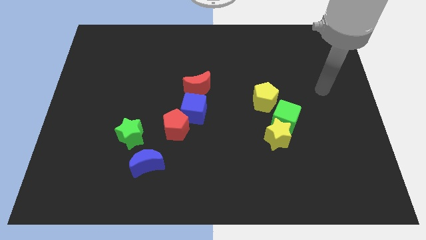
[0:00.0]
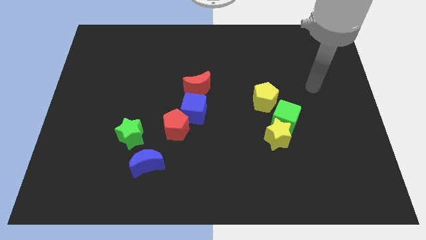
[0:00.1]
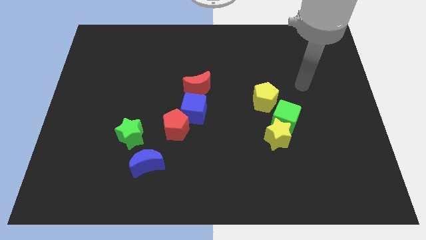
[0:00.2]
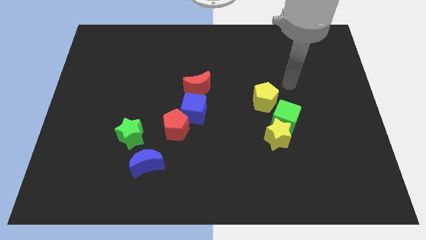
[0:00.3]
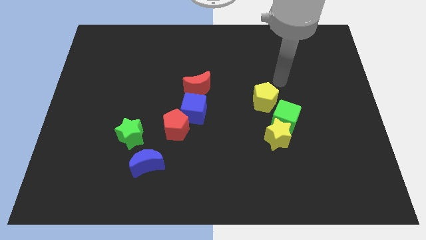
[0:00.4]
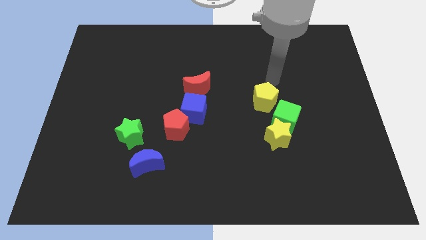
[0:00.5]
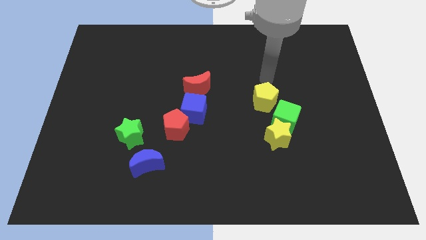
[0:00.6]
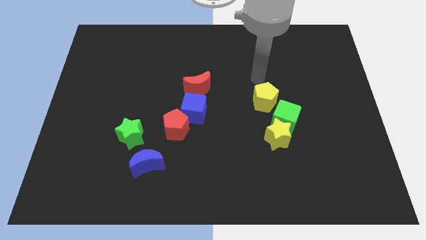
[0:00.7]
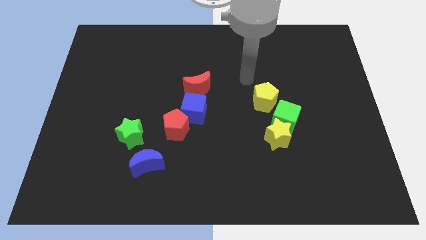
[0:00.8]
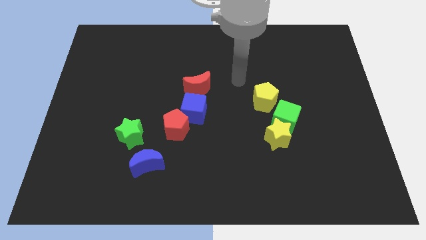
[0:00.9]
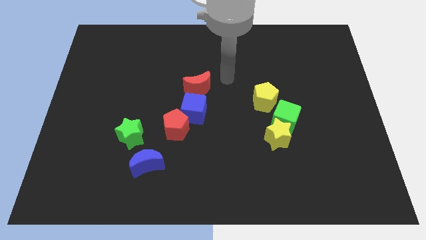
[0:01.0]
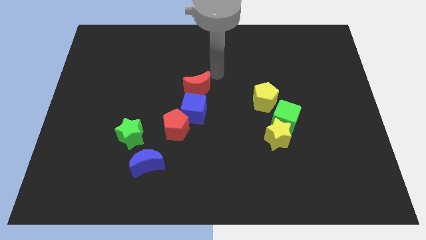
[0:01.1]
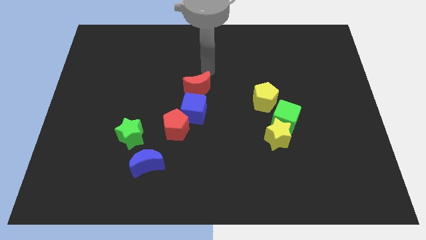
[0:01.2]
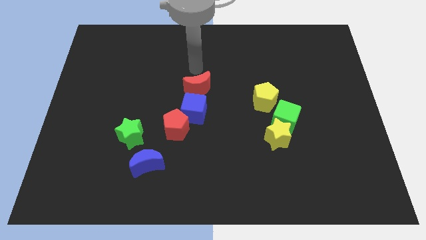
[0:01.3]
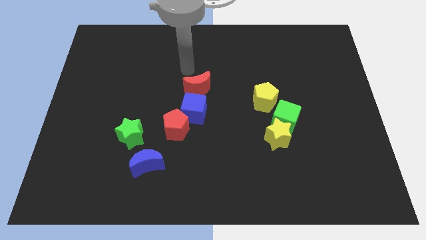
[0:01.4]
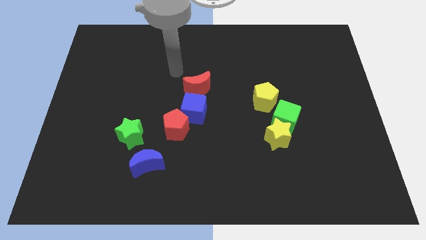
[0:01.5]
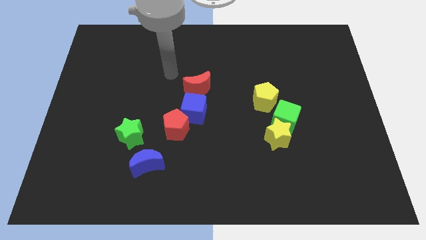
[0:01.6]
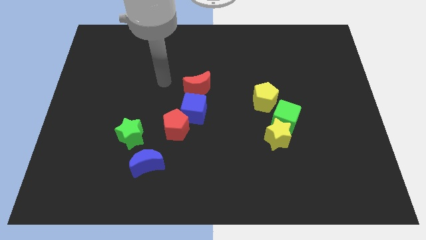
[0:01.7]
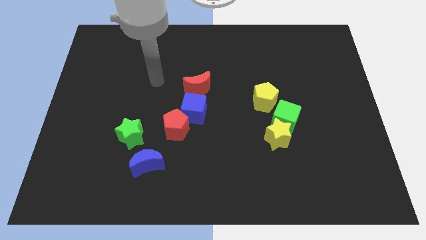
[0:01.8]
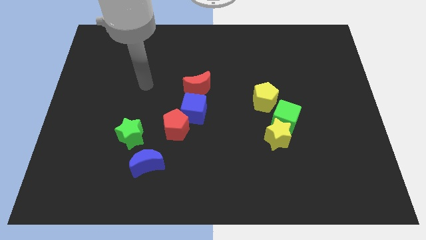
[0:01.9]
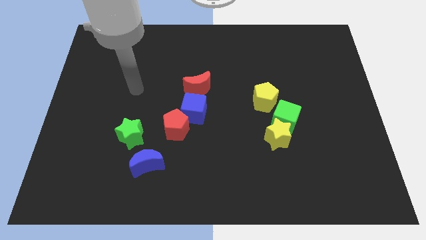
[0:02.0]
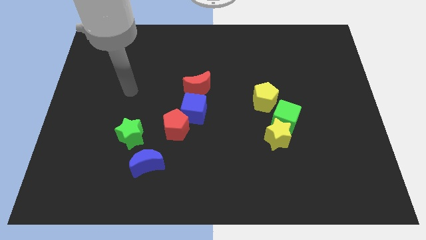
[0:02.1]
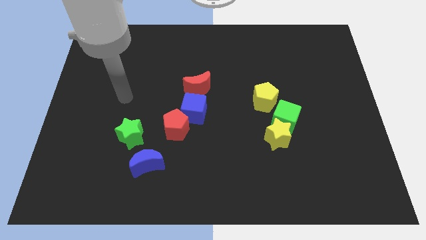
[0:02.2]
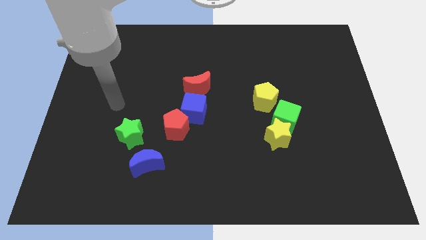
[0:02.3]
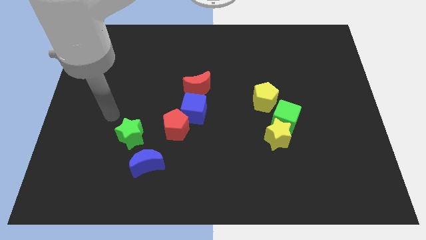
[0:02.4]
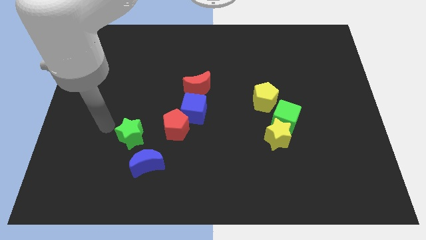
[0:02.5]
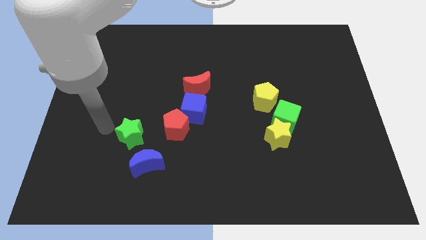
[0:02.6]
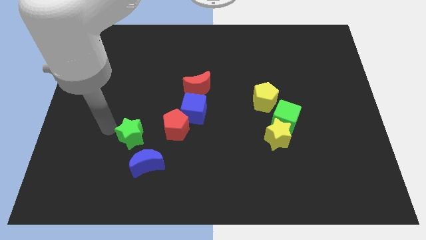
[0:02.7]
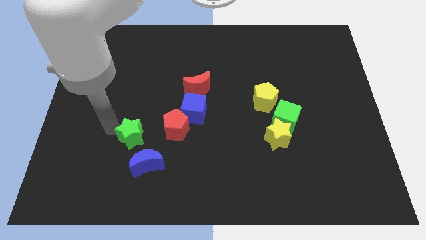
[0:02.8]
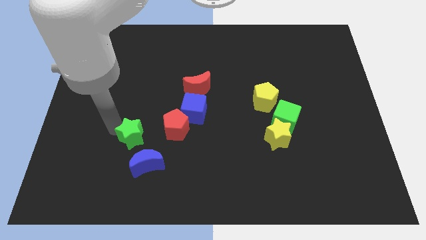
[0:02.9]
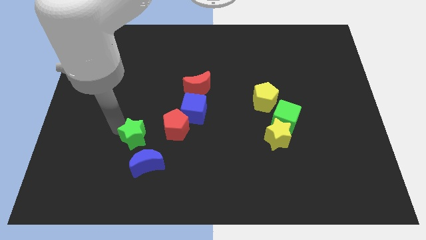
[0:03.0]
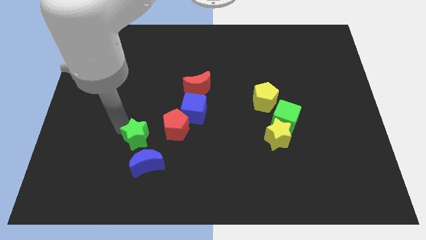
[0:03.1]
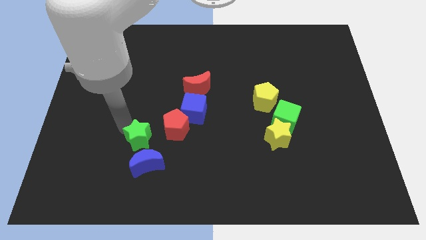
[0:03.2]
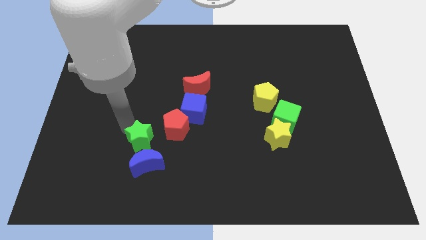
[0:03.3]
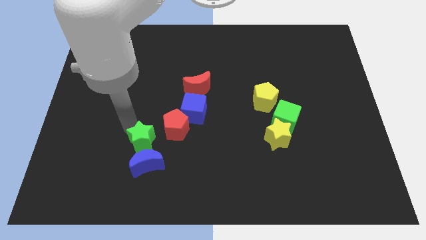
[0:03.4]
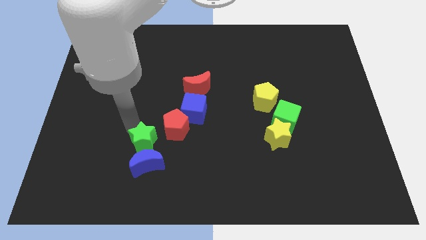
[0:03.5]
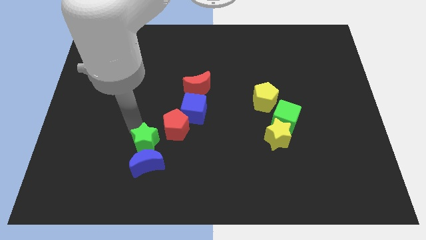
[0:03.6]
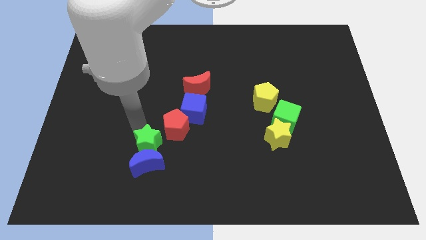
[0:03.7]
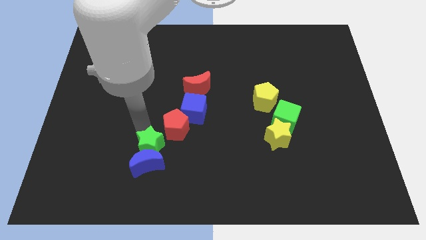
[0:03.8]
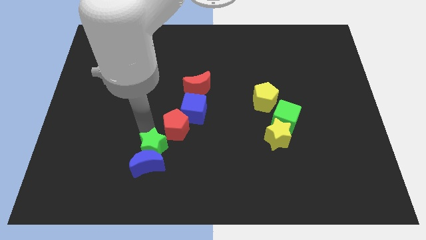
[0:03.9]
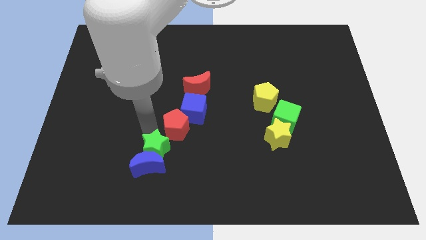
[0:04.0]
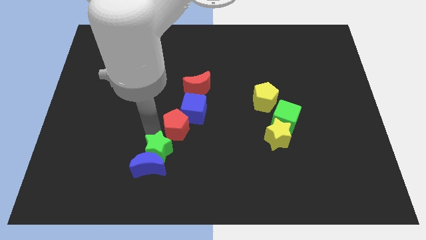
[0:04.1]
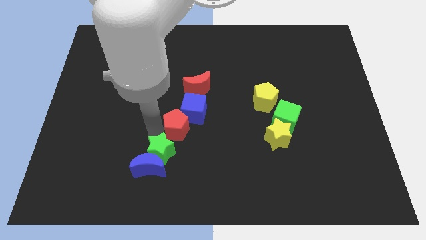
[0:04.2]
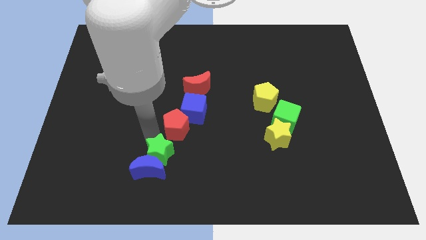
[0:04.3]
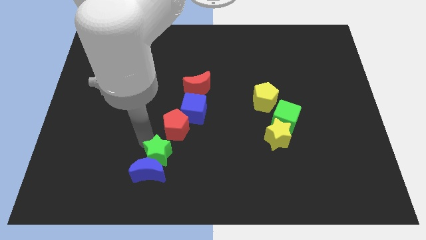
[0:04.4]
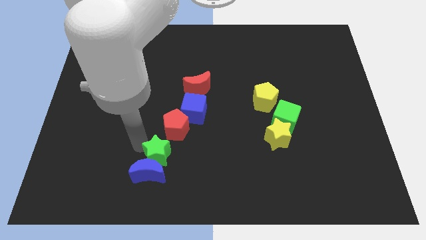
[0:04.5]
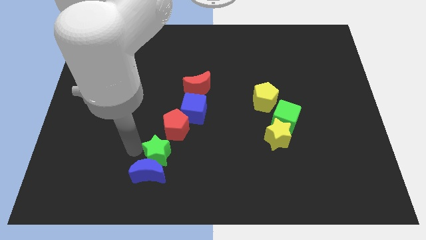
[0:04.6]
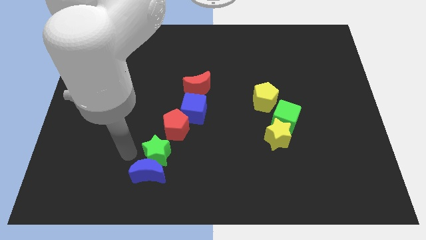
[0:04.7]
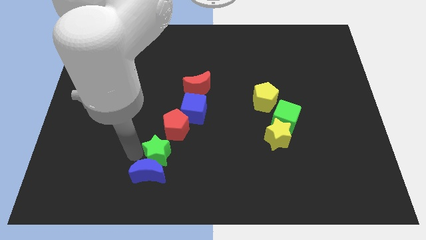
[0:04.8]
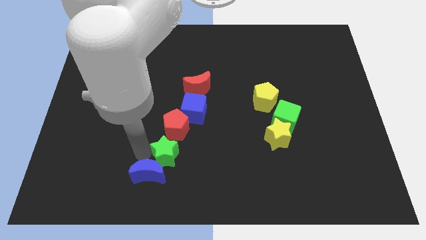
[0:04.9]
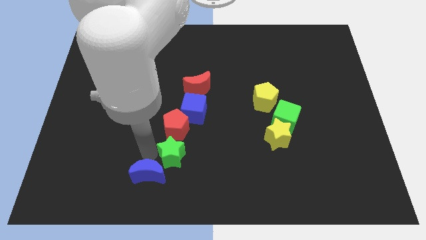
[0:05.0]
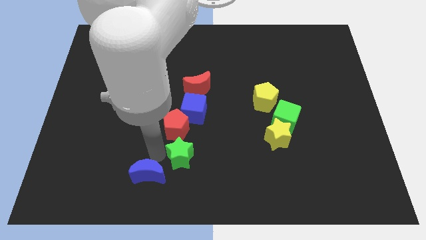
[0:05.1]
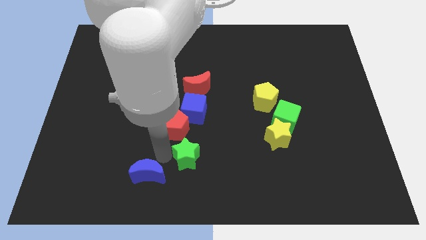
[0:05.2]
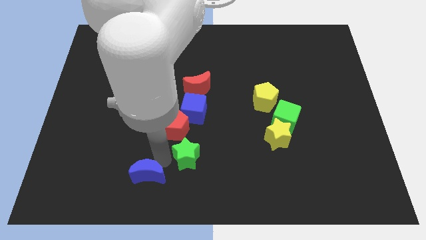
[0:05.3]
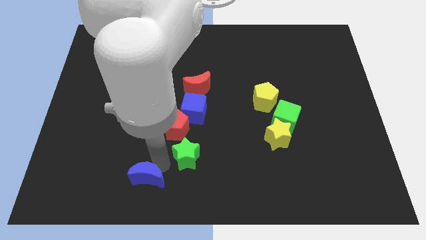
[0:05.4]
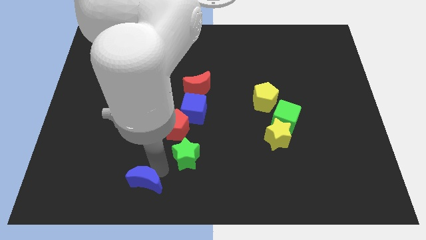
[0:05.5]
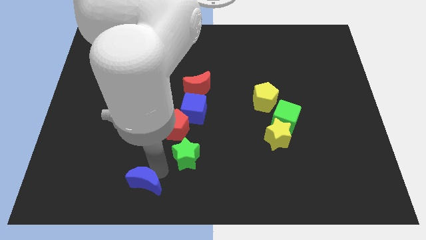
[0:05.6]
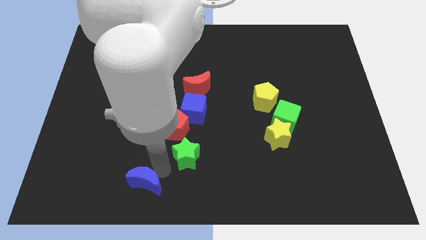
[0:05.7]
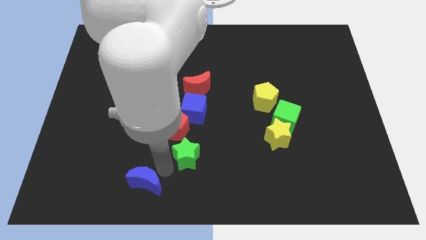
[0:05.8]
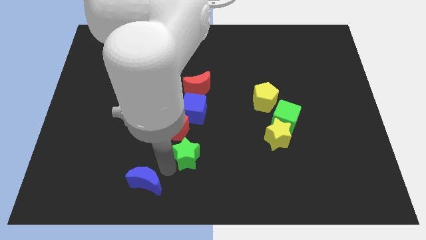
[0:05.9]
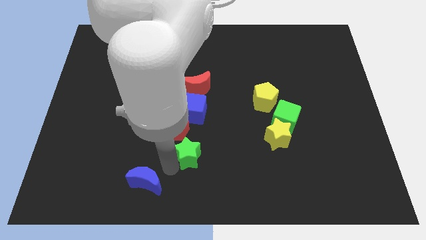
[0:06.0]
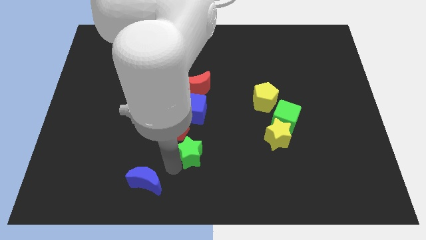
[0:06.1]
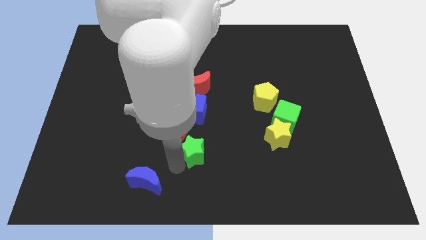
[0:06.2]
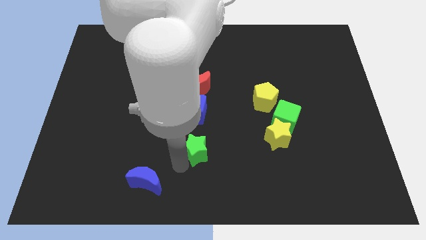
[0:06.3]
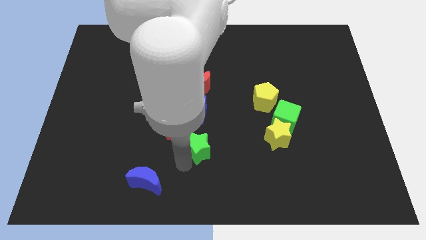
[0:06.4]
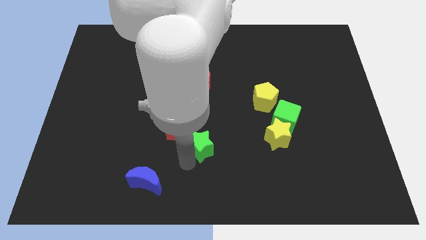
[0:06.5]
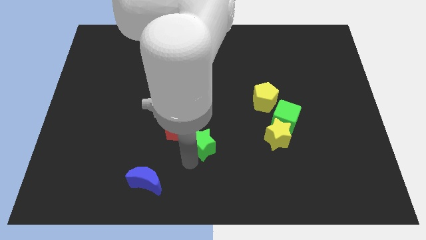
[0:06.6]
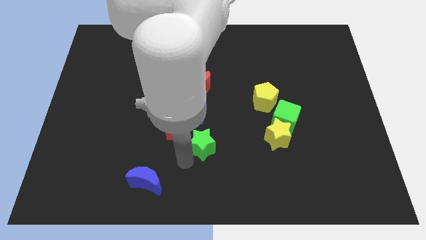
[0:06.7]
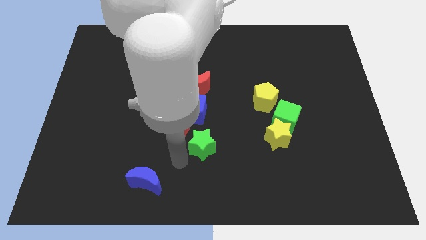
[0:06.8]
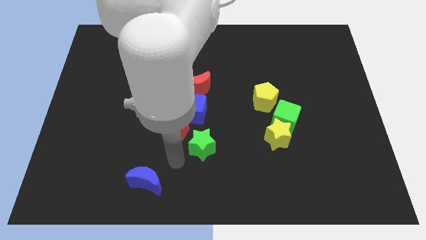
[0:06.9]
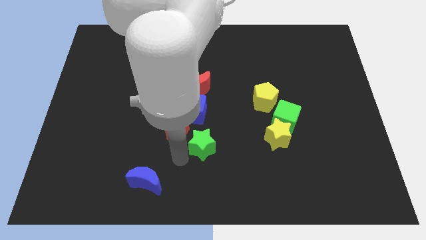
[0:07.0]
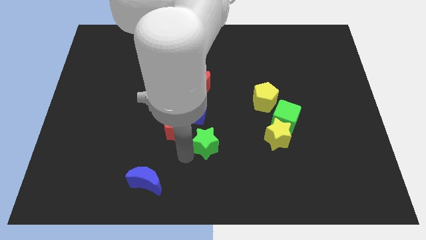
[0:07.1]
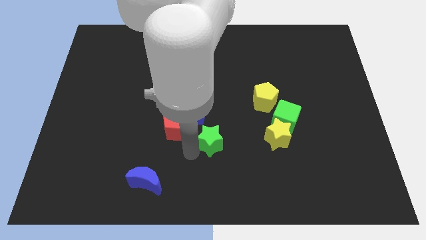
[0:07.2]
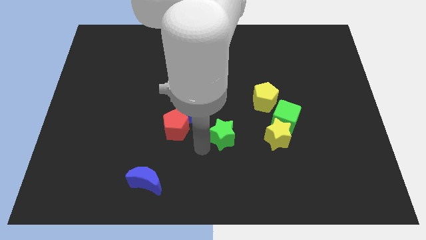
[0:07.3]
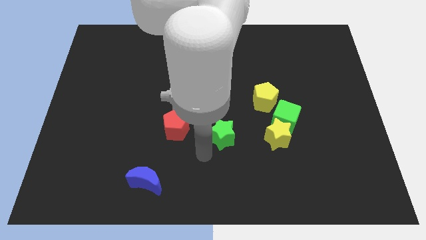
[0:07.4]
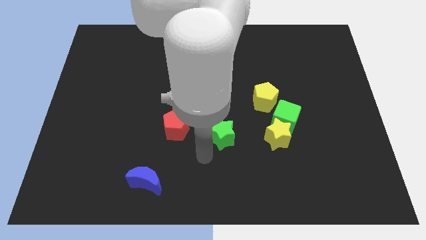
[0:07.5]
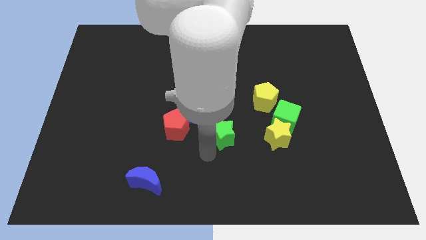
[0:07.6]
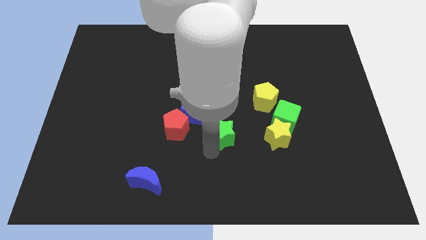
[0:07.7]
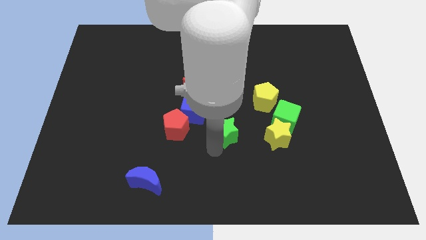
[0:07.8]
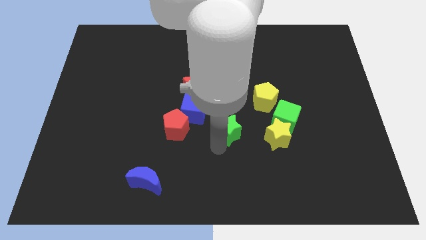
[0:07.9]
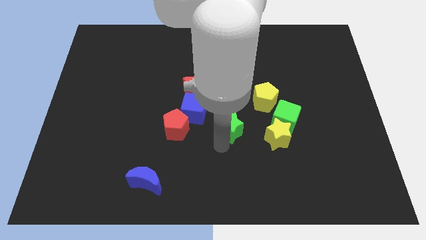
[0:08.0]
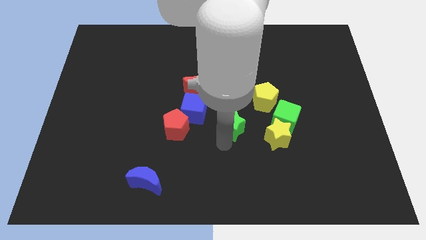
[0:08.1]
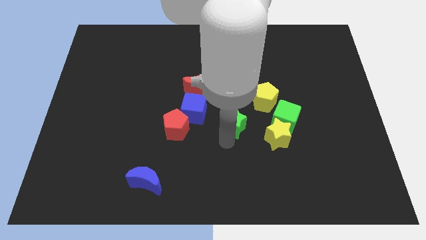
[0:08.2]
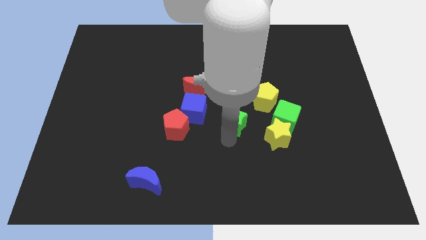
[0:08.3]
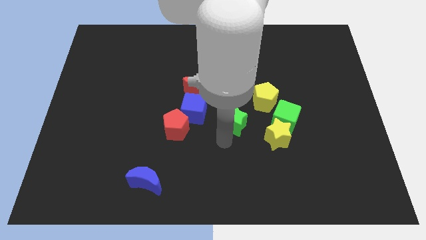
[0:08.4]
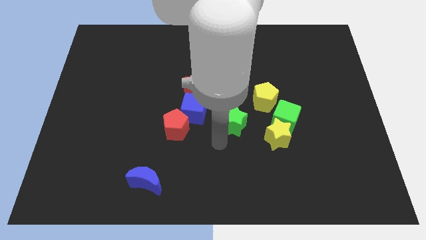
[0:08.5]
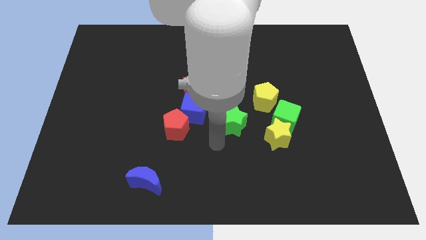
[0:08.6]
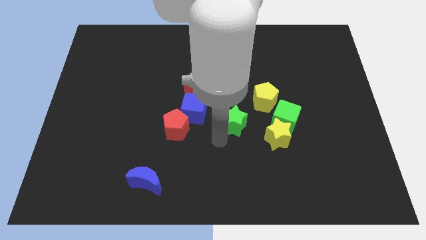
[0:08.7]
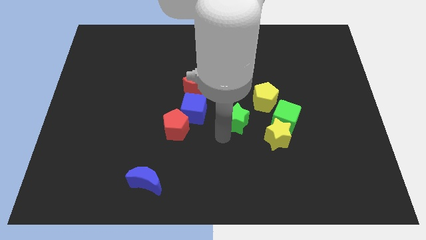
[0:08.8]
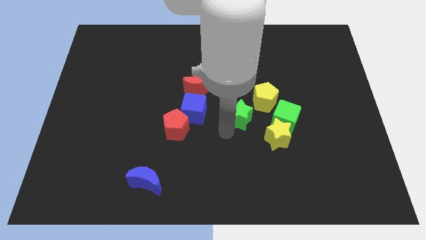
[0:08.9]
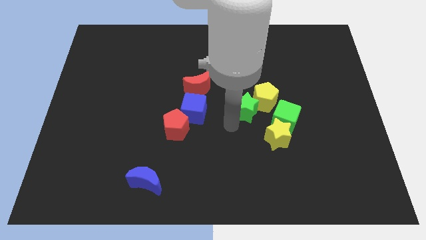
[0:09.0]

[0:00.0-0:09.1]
move the green star close to the yellow pentagon
